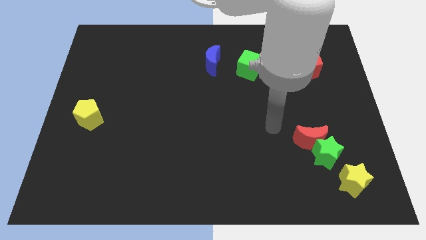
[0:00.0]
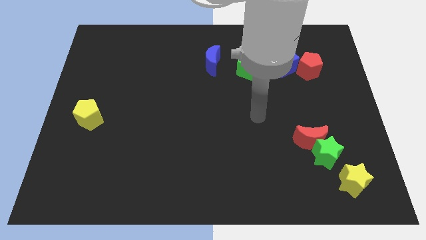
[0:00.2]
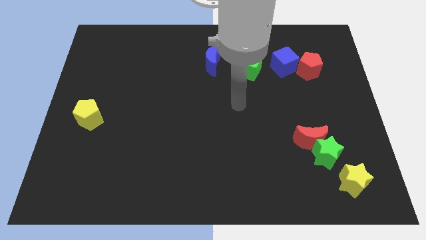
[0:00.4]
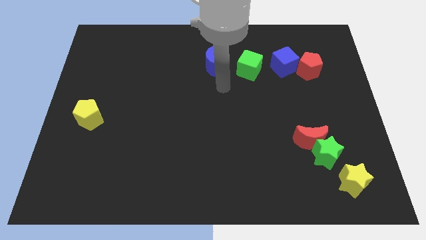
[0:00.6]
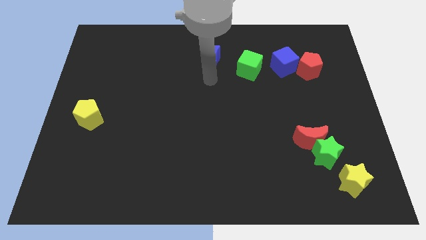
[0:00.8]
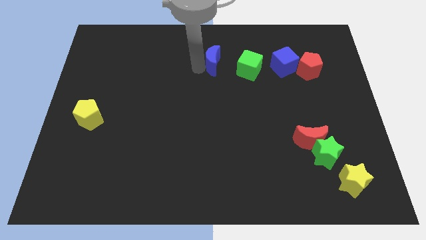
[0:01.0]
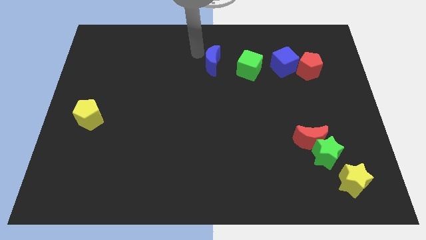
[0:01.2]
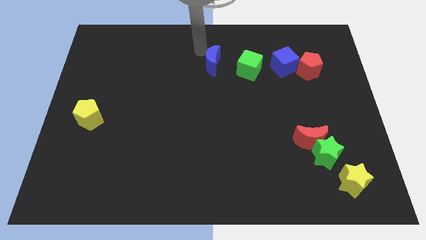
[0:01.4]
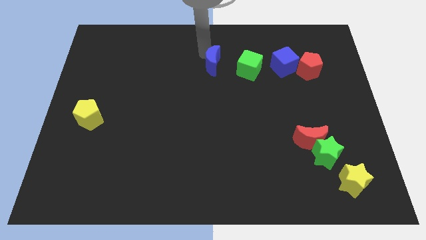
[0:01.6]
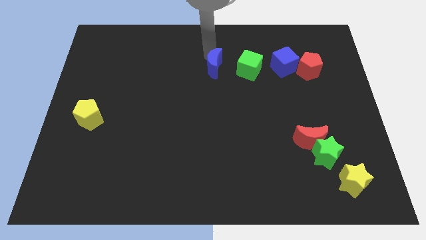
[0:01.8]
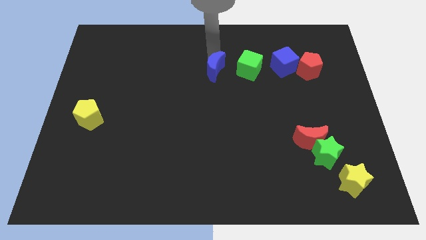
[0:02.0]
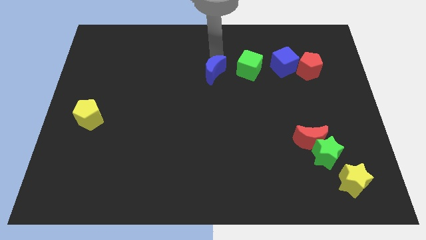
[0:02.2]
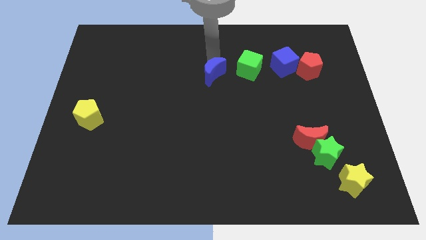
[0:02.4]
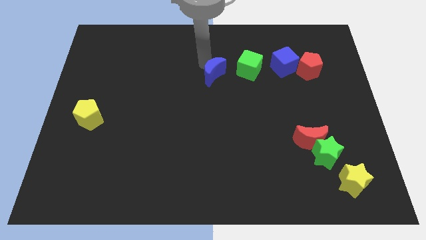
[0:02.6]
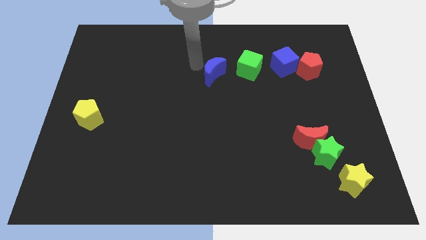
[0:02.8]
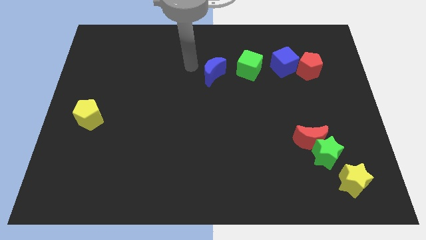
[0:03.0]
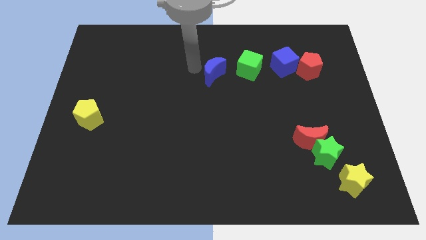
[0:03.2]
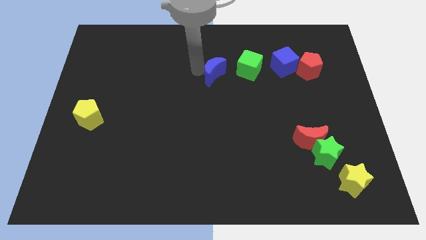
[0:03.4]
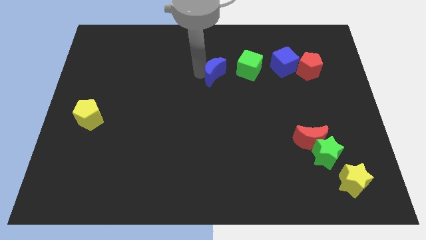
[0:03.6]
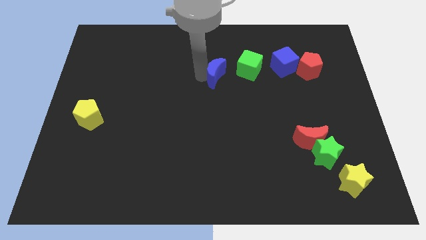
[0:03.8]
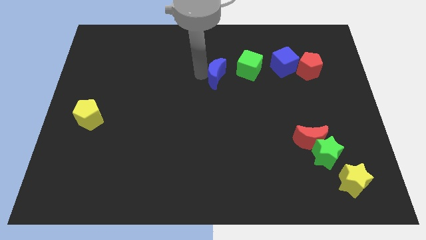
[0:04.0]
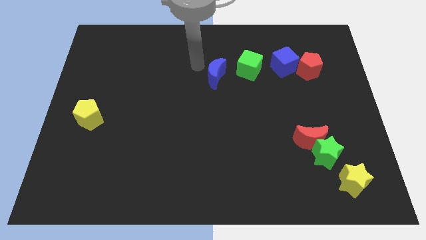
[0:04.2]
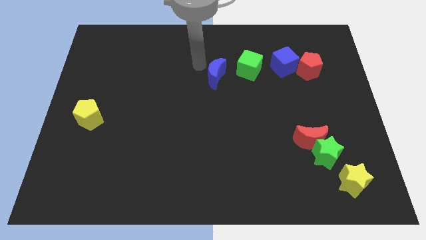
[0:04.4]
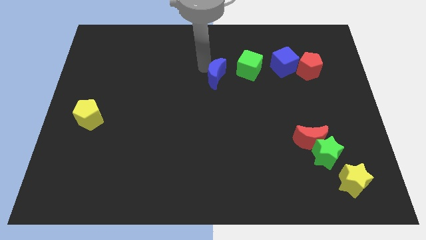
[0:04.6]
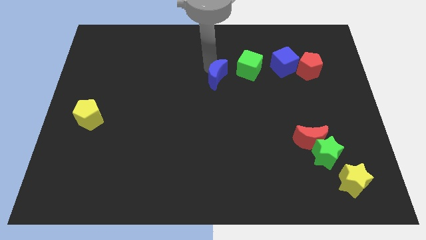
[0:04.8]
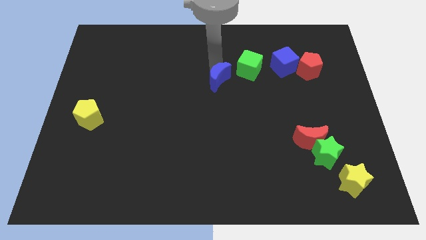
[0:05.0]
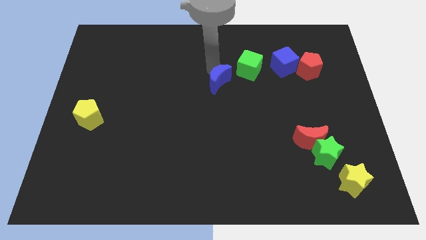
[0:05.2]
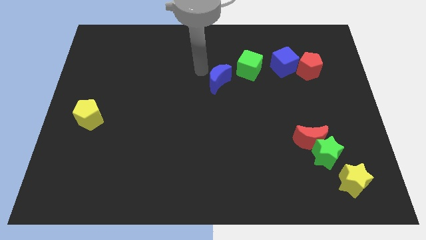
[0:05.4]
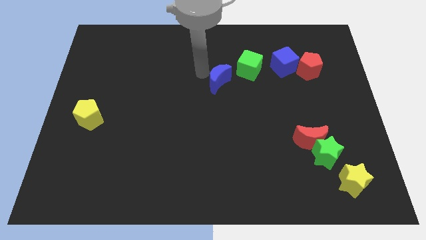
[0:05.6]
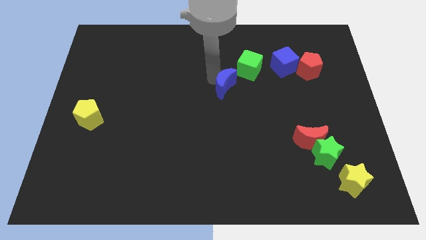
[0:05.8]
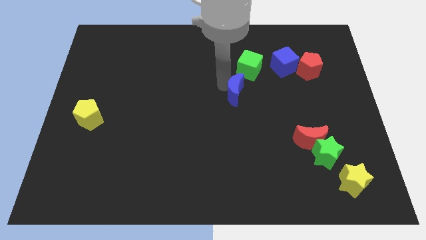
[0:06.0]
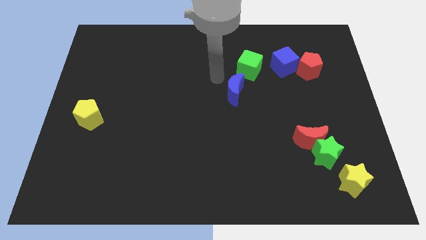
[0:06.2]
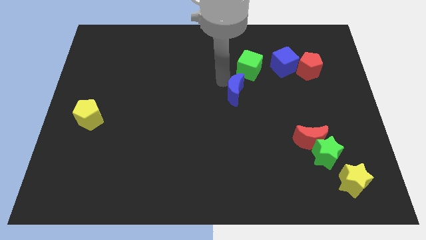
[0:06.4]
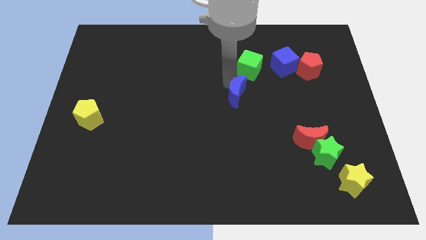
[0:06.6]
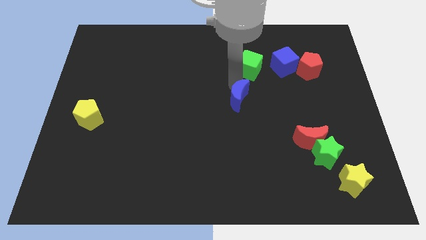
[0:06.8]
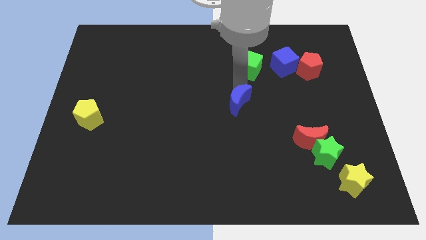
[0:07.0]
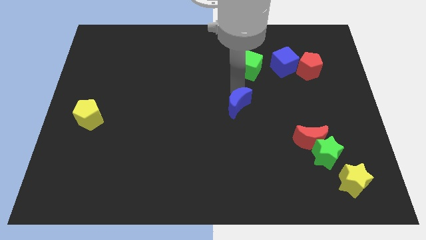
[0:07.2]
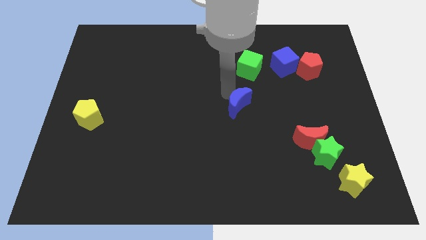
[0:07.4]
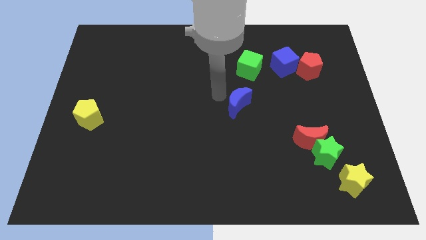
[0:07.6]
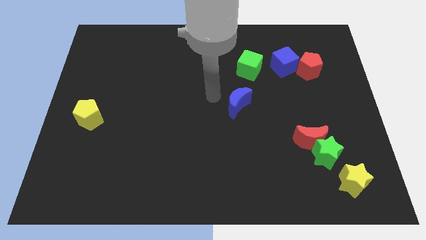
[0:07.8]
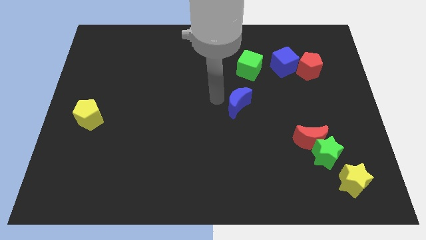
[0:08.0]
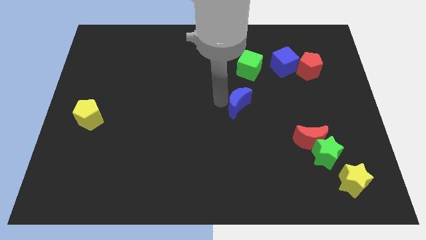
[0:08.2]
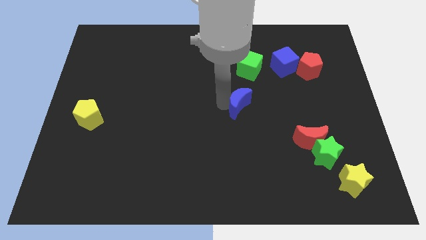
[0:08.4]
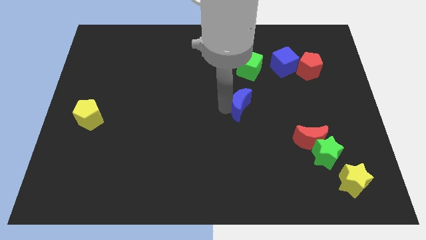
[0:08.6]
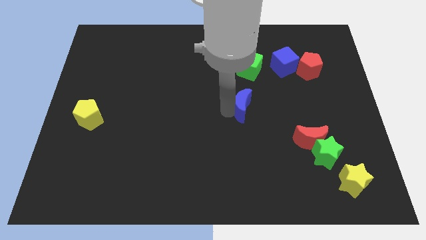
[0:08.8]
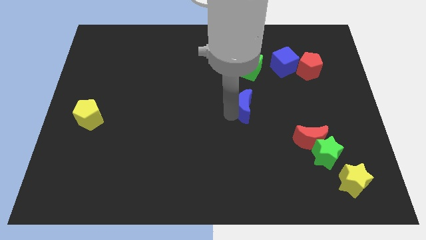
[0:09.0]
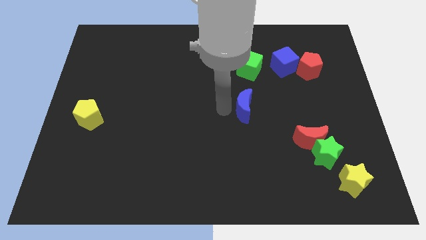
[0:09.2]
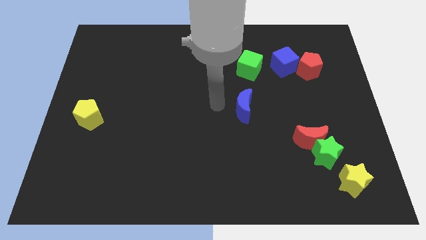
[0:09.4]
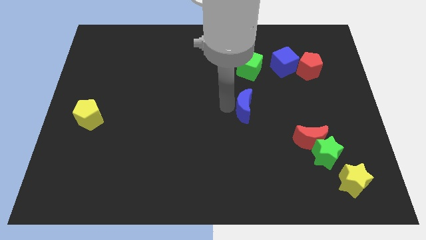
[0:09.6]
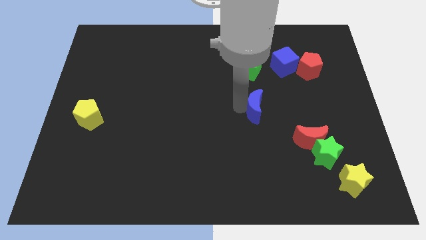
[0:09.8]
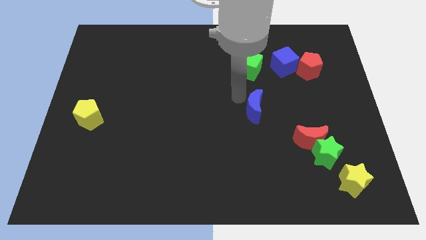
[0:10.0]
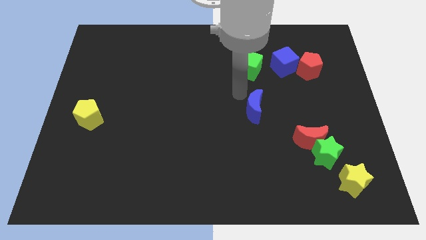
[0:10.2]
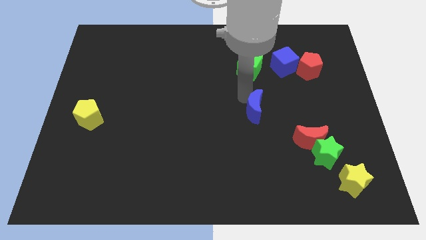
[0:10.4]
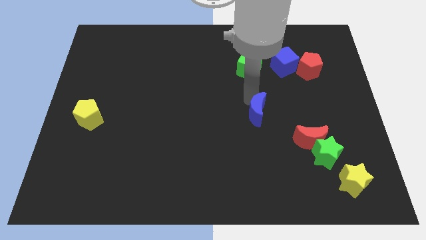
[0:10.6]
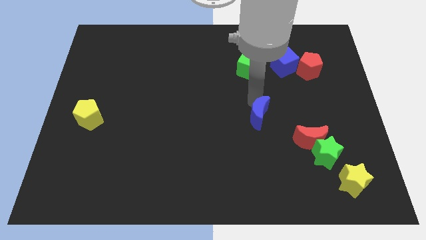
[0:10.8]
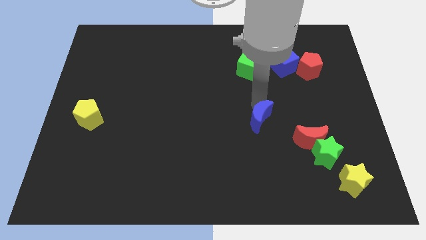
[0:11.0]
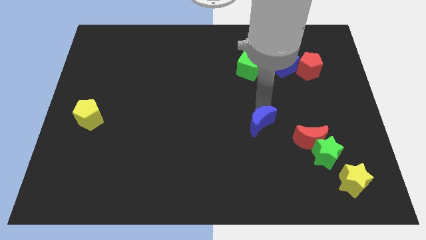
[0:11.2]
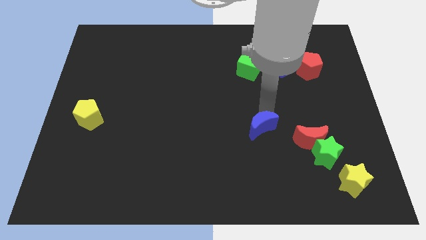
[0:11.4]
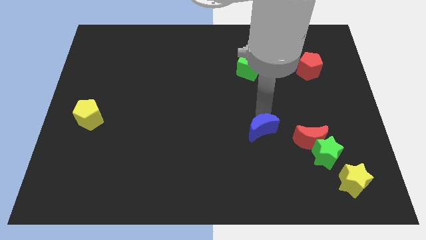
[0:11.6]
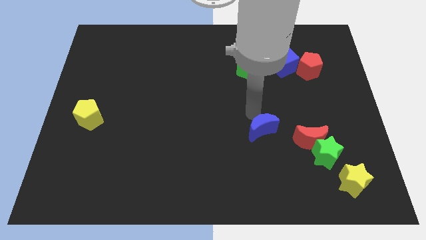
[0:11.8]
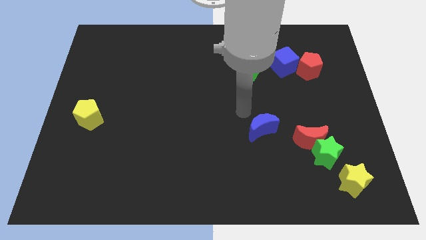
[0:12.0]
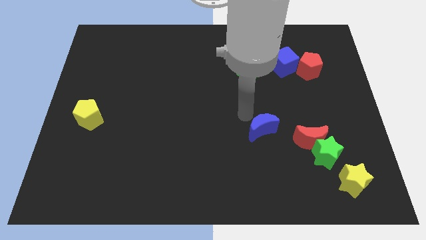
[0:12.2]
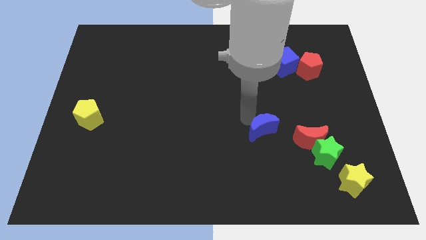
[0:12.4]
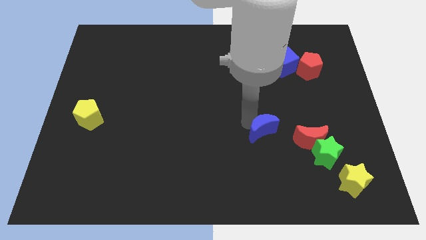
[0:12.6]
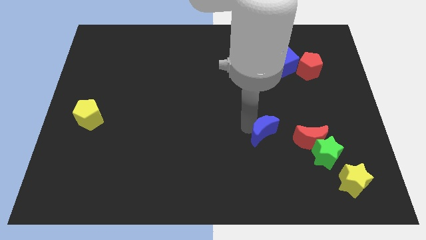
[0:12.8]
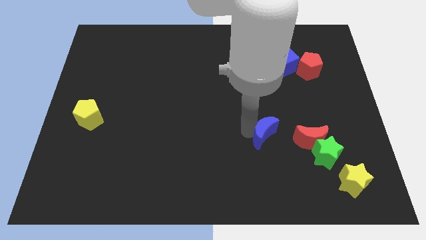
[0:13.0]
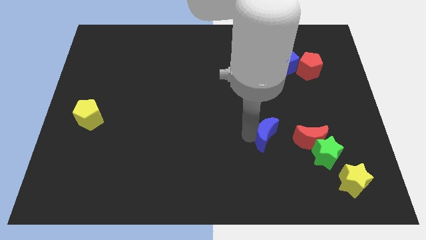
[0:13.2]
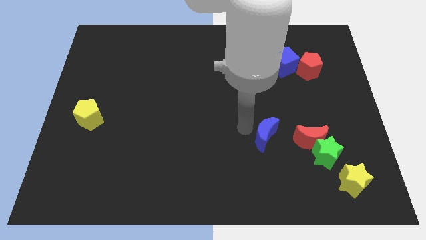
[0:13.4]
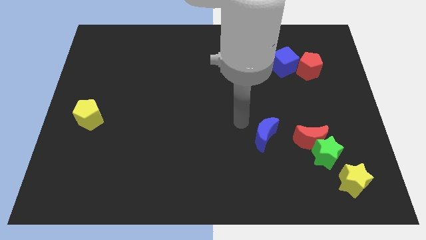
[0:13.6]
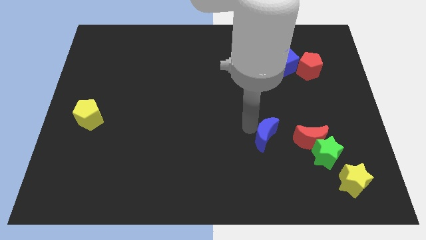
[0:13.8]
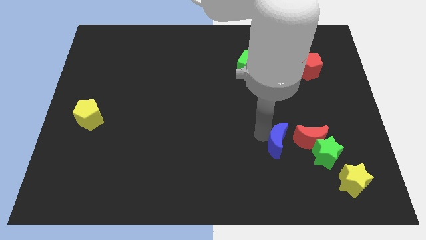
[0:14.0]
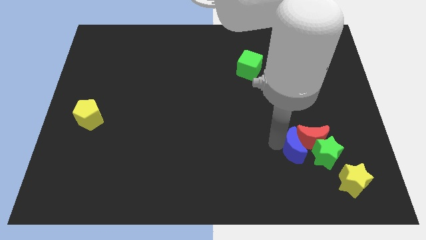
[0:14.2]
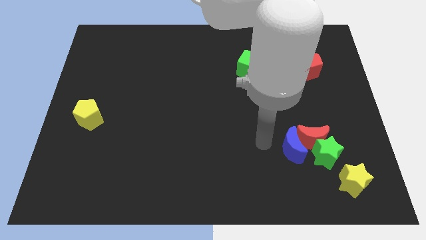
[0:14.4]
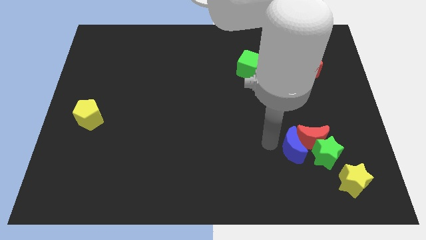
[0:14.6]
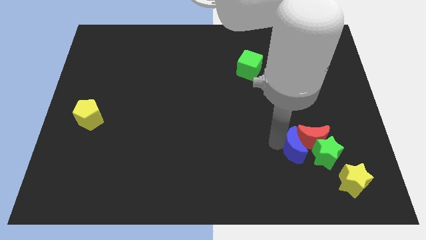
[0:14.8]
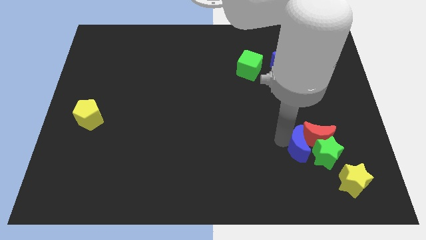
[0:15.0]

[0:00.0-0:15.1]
move the blue moon close to the green star
